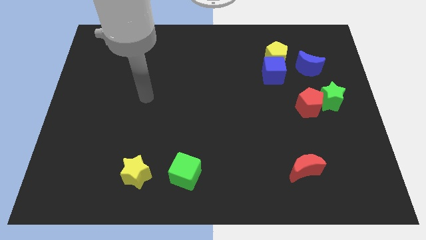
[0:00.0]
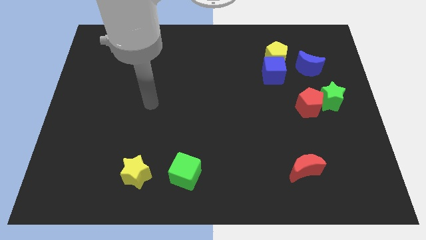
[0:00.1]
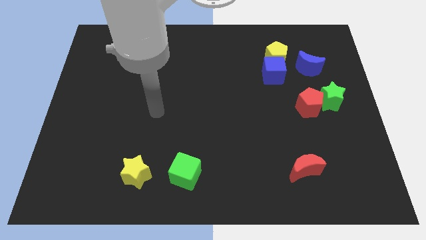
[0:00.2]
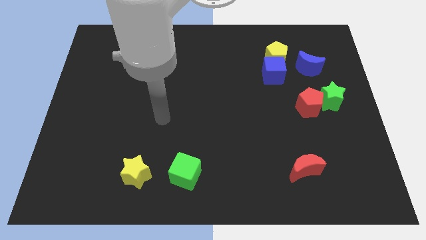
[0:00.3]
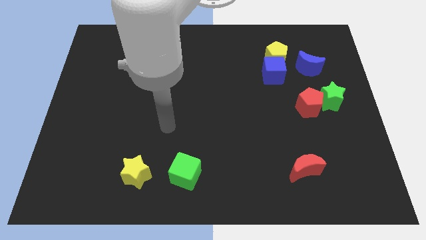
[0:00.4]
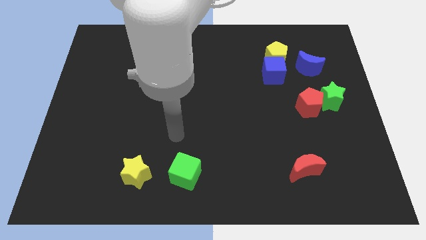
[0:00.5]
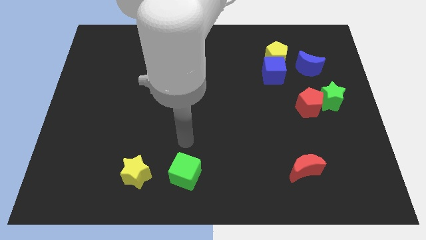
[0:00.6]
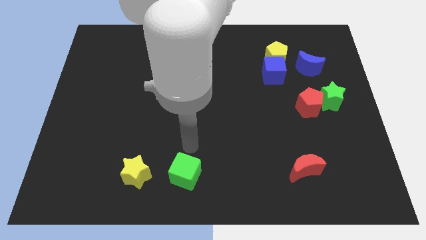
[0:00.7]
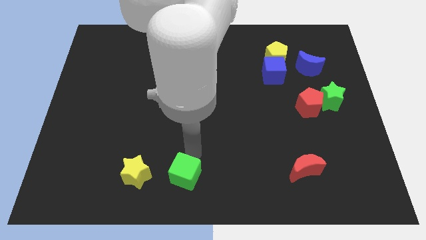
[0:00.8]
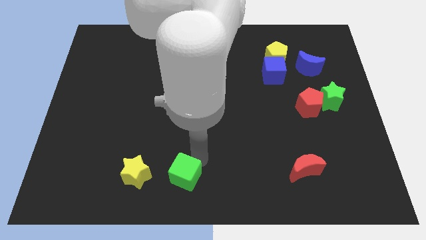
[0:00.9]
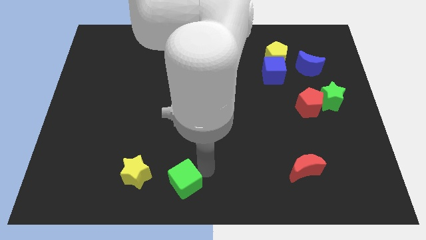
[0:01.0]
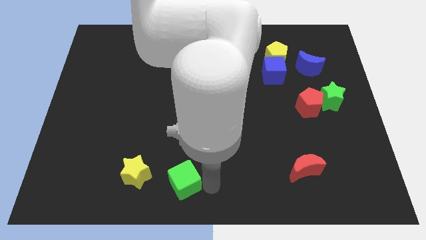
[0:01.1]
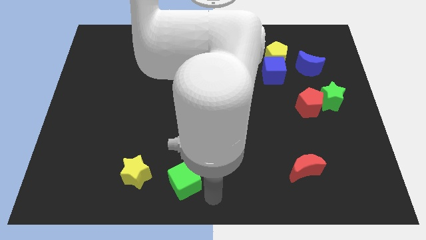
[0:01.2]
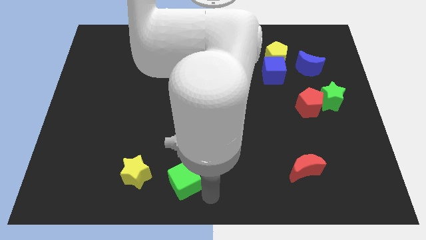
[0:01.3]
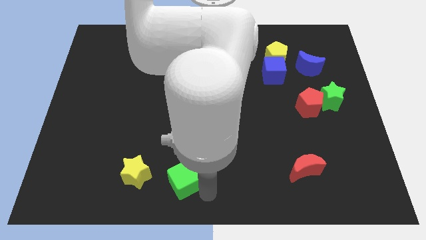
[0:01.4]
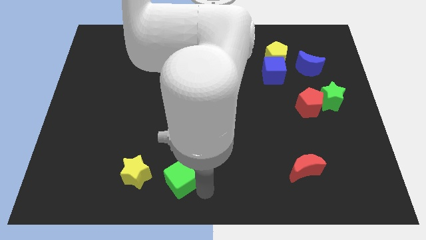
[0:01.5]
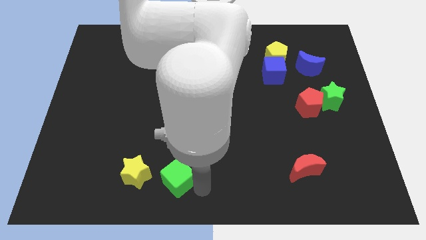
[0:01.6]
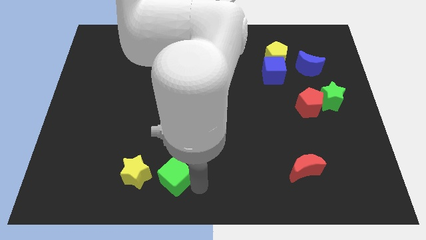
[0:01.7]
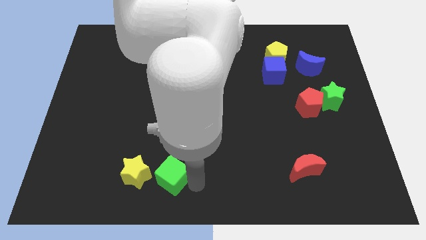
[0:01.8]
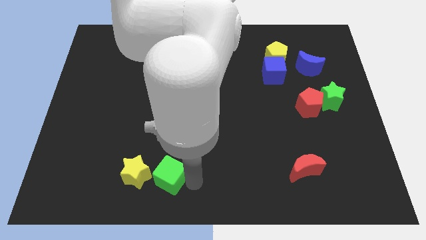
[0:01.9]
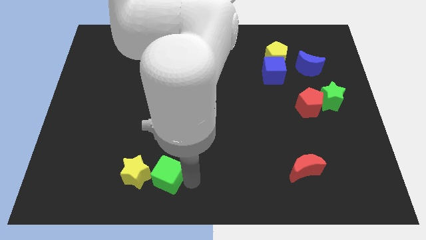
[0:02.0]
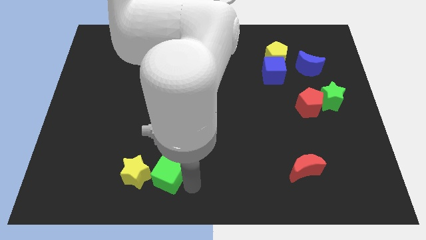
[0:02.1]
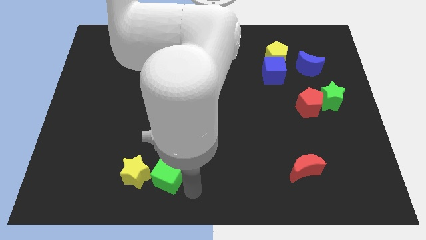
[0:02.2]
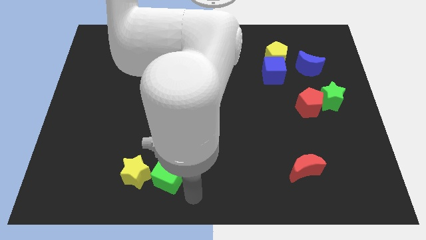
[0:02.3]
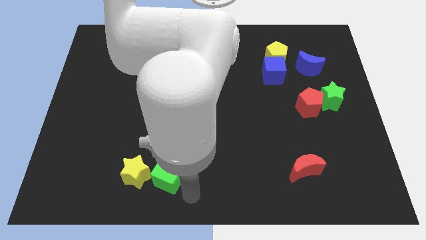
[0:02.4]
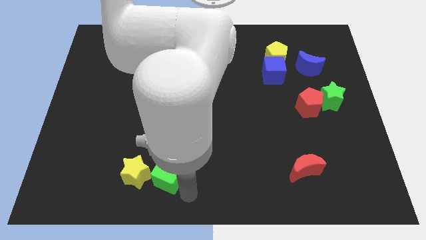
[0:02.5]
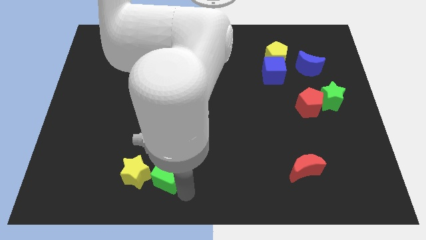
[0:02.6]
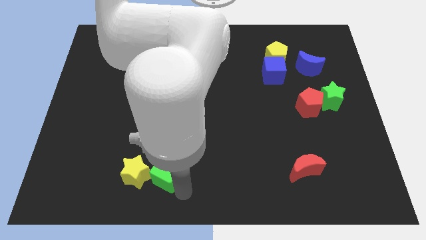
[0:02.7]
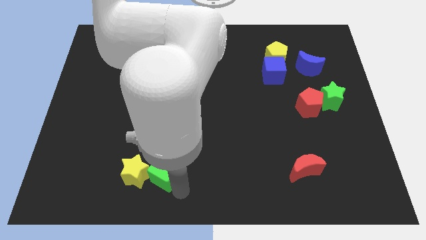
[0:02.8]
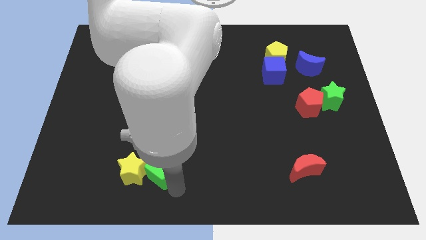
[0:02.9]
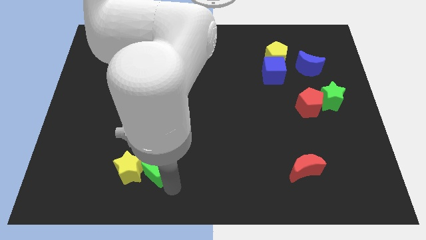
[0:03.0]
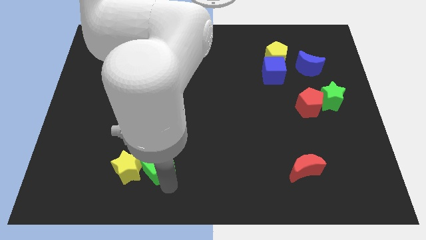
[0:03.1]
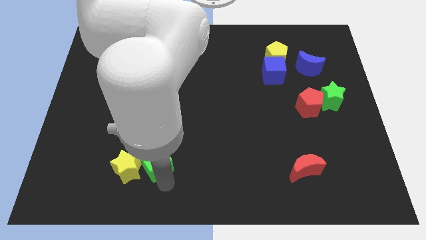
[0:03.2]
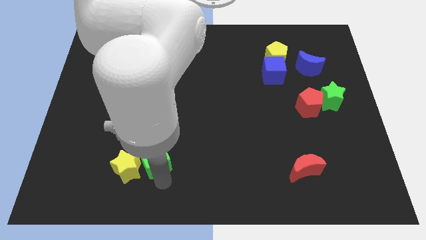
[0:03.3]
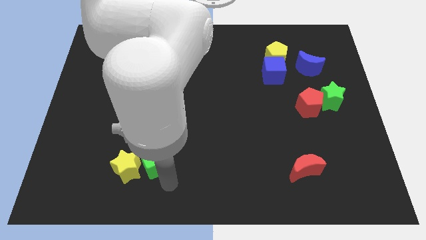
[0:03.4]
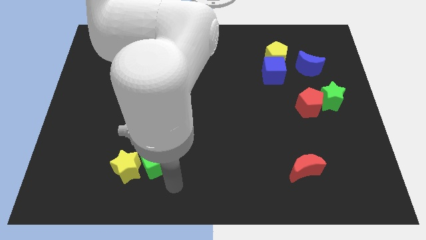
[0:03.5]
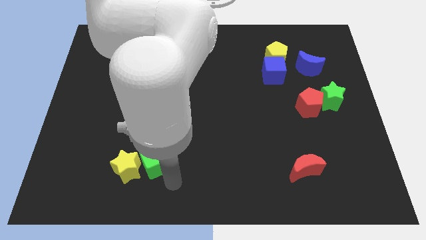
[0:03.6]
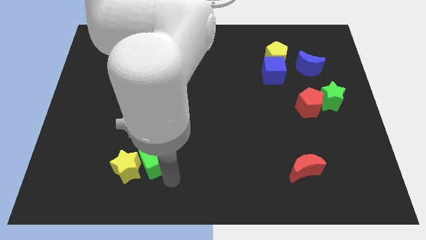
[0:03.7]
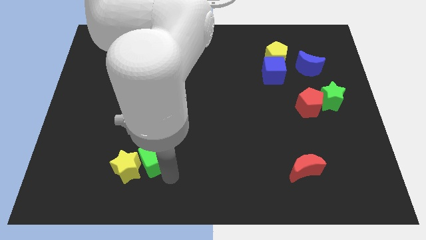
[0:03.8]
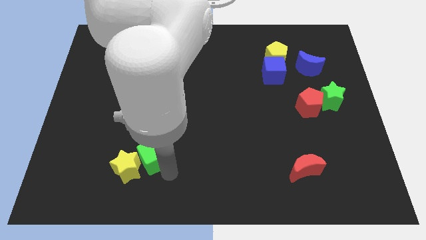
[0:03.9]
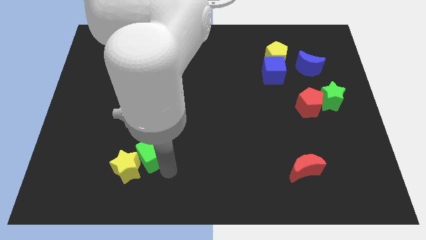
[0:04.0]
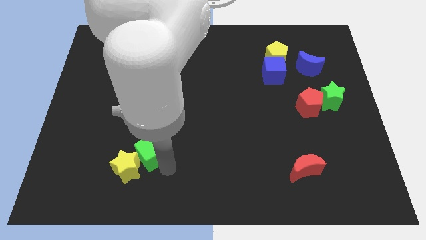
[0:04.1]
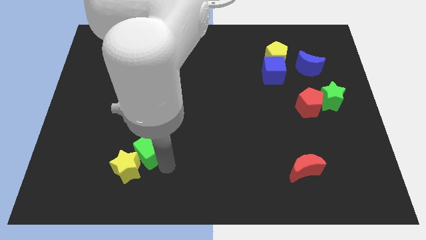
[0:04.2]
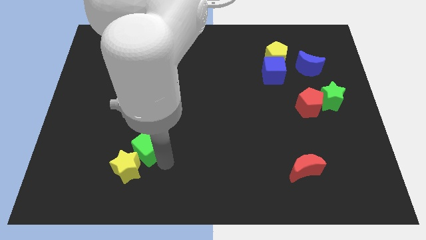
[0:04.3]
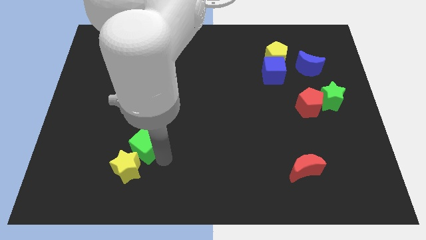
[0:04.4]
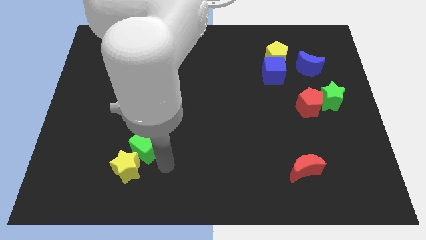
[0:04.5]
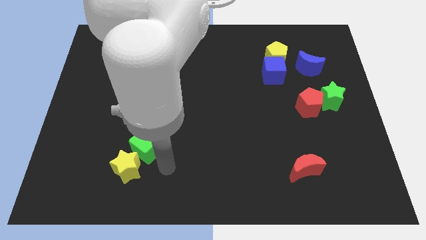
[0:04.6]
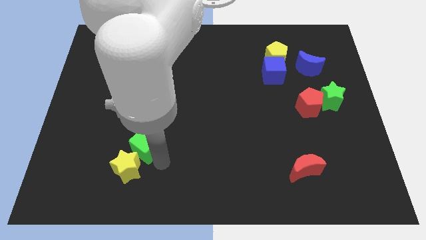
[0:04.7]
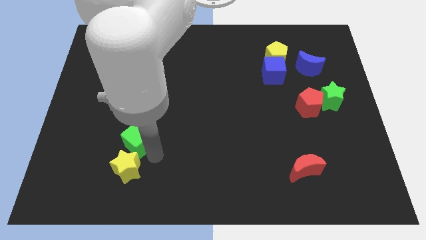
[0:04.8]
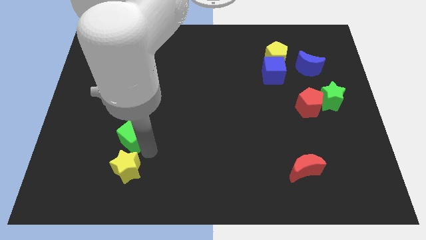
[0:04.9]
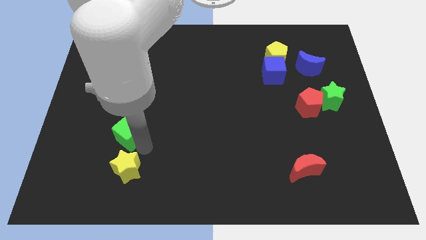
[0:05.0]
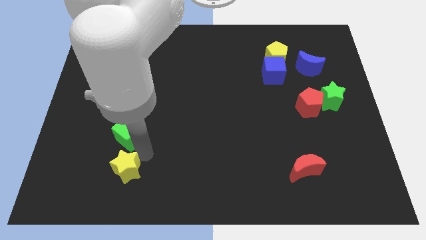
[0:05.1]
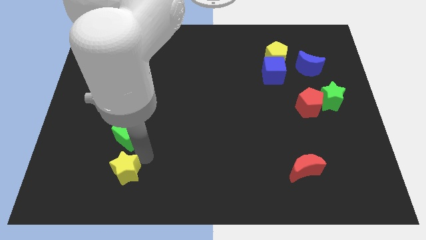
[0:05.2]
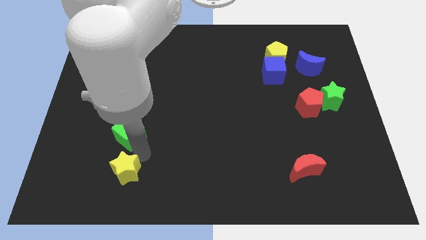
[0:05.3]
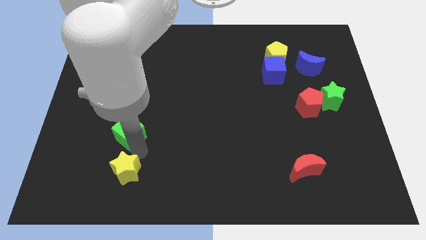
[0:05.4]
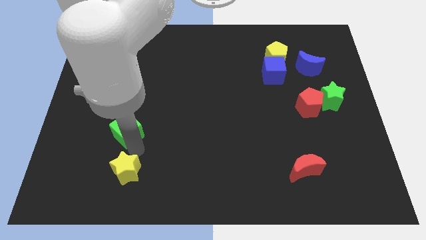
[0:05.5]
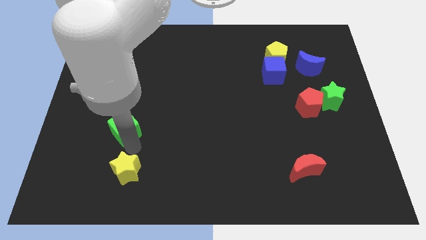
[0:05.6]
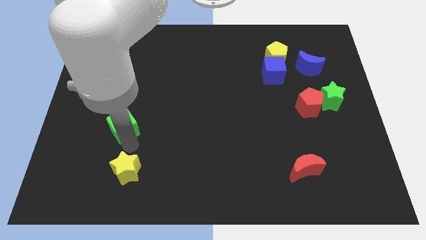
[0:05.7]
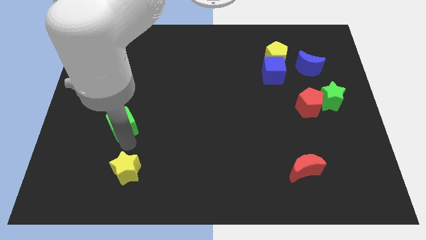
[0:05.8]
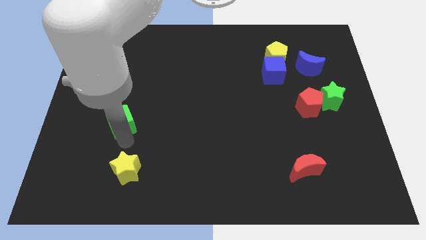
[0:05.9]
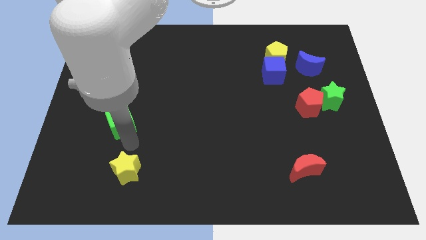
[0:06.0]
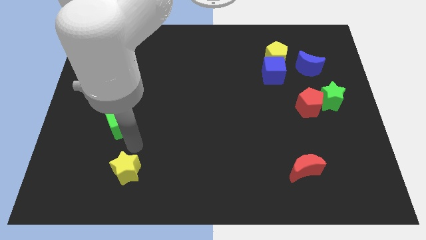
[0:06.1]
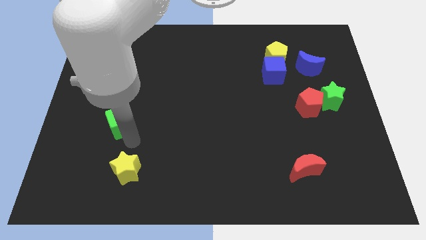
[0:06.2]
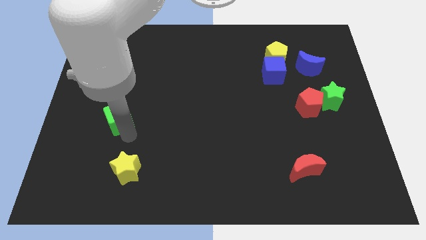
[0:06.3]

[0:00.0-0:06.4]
push the green cube upwards and left diagonally

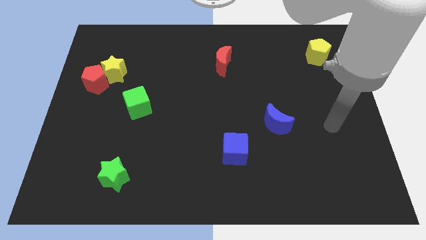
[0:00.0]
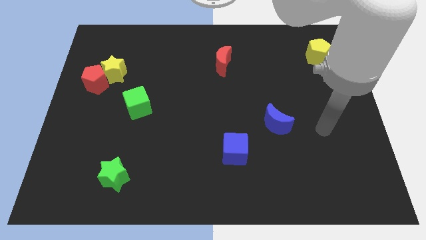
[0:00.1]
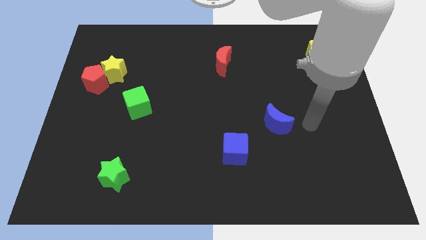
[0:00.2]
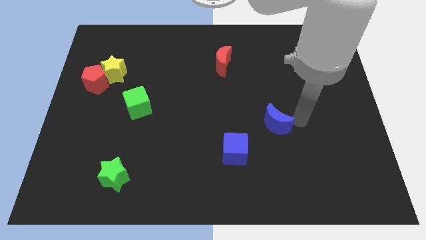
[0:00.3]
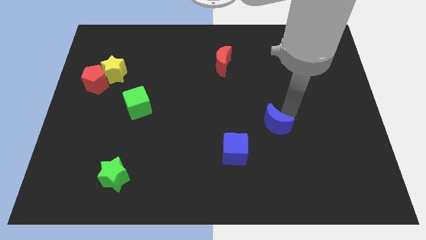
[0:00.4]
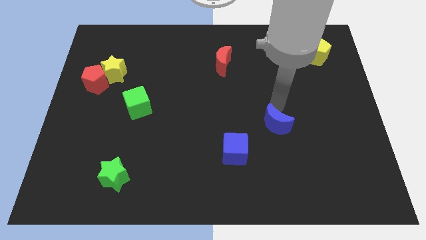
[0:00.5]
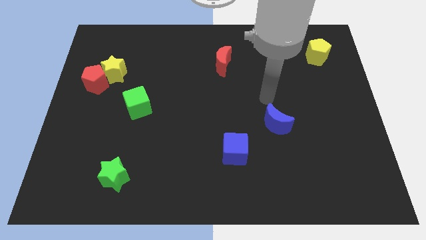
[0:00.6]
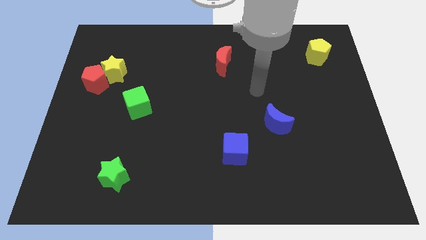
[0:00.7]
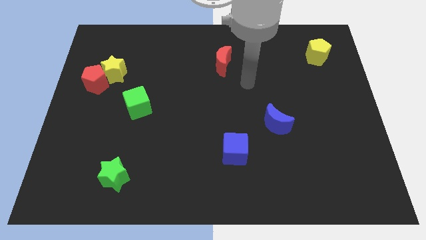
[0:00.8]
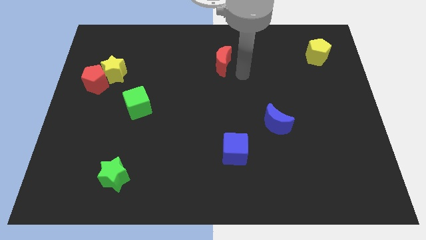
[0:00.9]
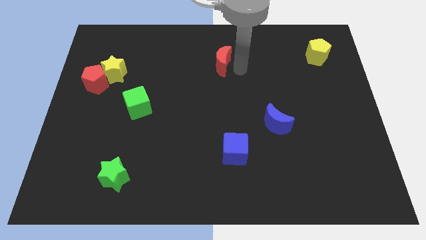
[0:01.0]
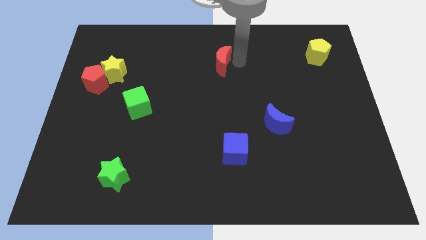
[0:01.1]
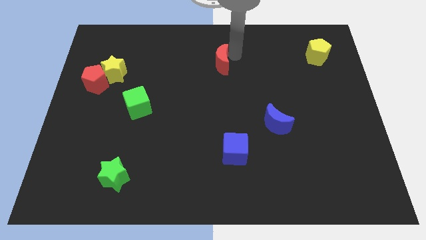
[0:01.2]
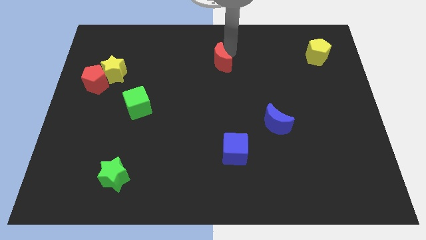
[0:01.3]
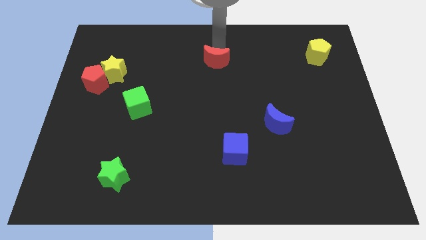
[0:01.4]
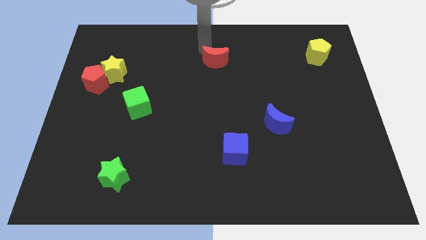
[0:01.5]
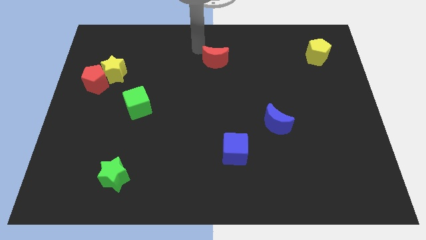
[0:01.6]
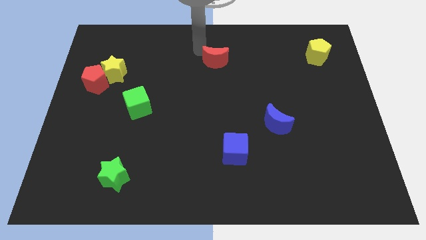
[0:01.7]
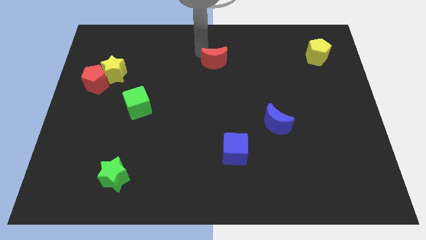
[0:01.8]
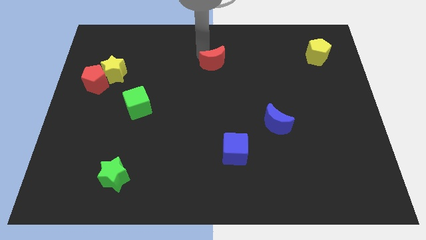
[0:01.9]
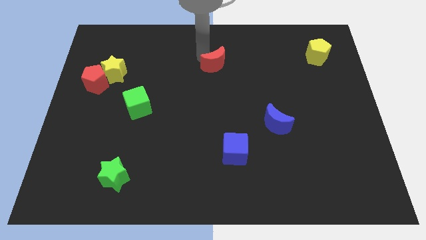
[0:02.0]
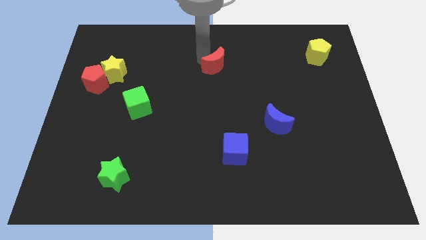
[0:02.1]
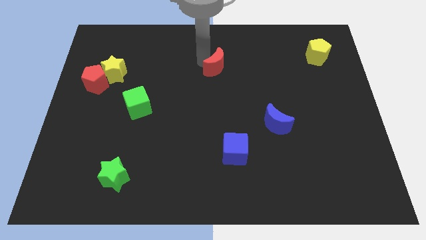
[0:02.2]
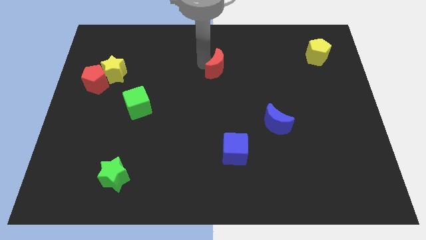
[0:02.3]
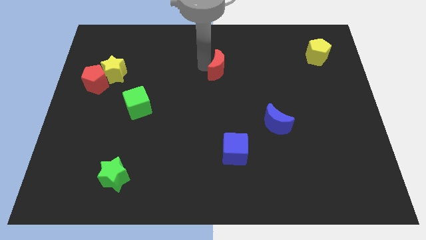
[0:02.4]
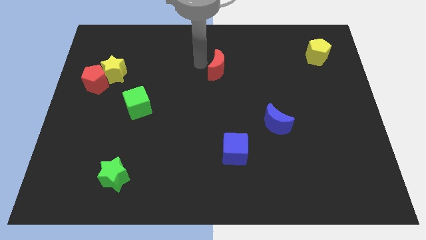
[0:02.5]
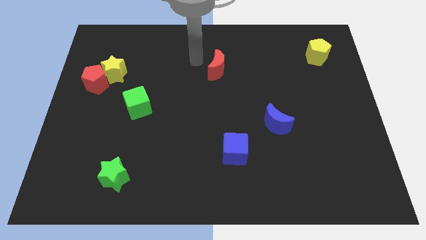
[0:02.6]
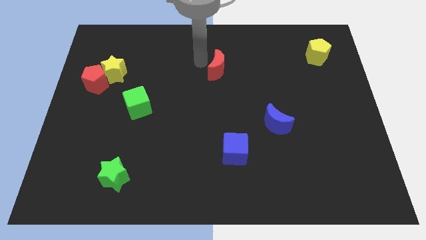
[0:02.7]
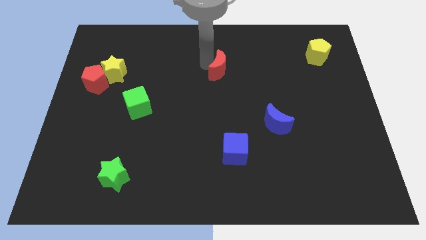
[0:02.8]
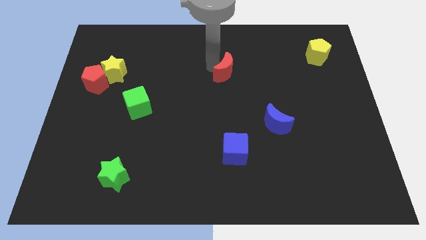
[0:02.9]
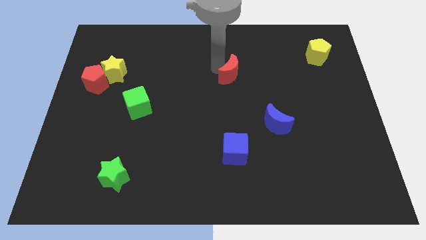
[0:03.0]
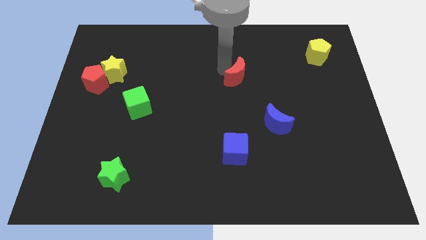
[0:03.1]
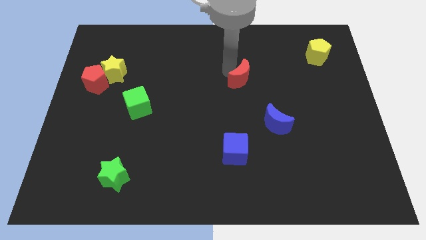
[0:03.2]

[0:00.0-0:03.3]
slightly move the red moon downwards and to the right
